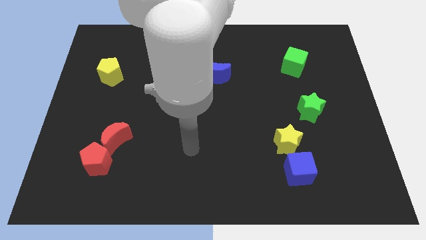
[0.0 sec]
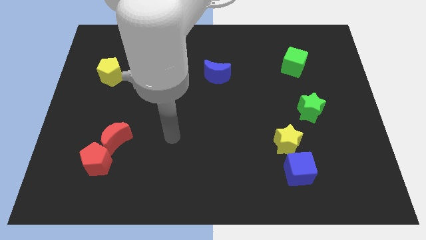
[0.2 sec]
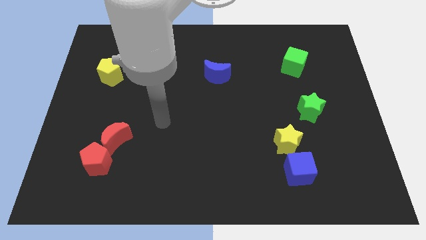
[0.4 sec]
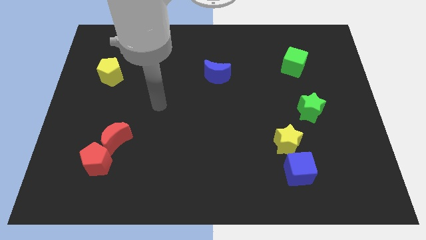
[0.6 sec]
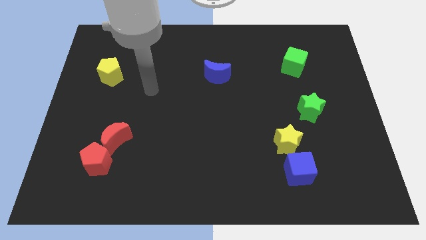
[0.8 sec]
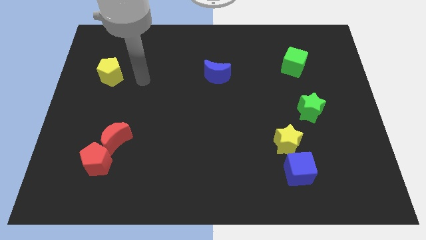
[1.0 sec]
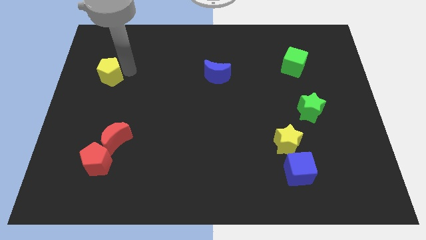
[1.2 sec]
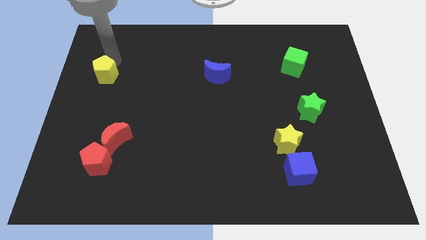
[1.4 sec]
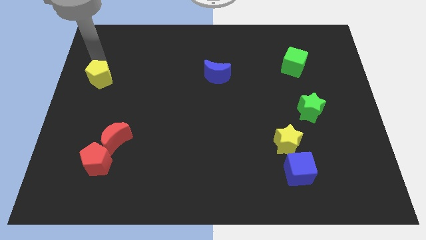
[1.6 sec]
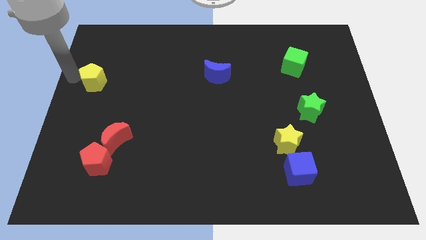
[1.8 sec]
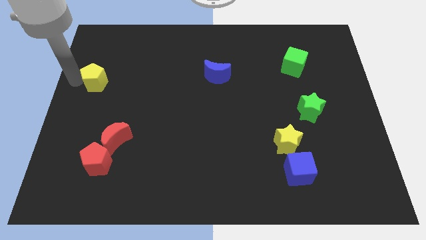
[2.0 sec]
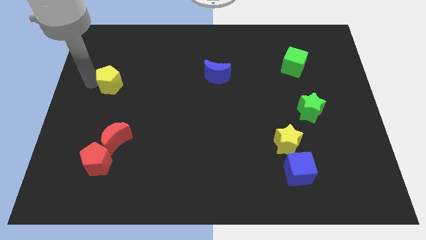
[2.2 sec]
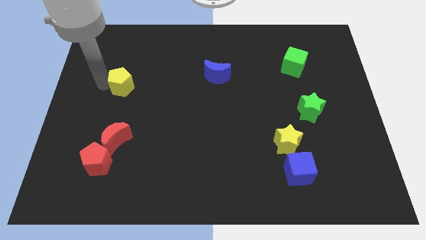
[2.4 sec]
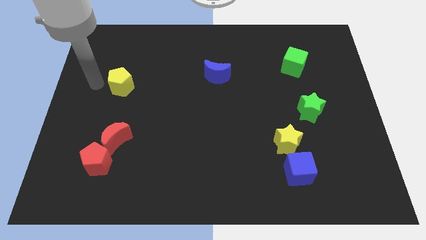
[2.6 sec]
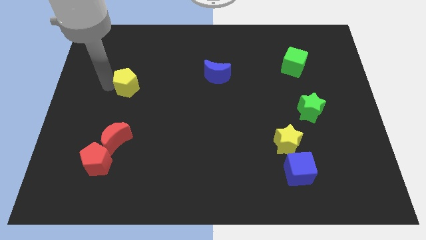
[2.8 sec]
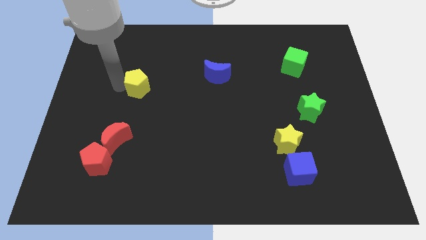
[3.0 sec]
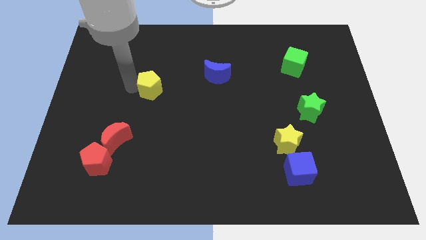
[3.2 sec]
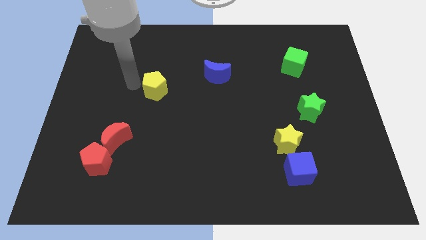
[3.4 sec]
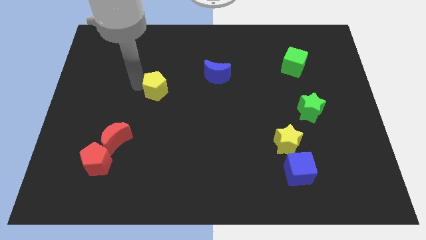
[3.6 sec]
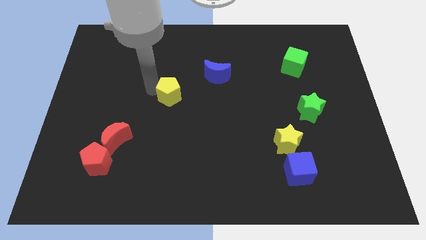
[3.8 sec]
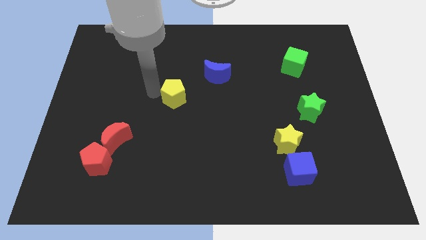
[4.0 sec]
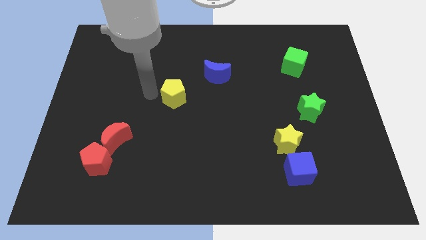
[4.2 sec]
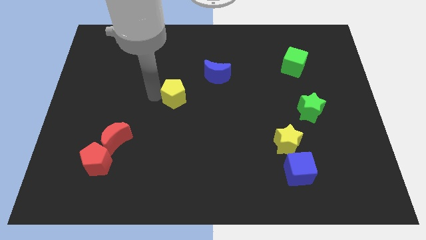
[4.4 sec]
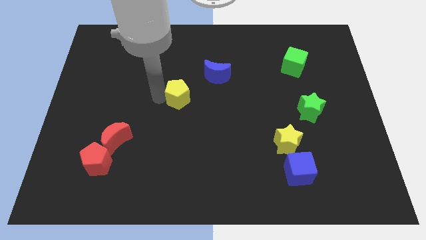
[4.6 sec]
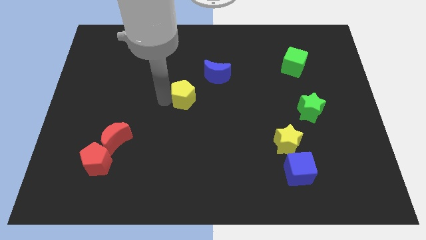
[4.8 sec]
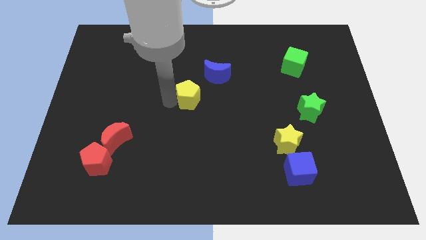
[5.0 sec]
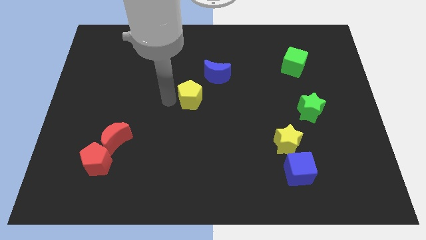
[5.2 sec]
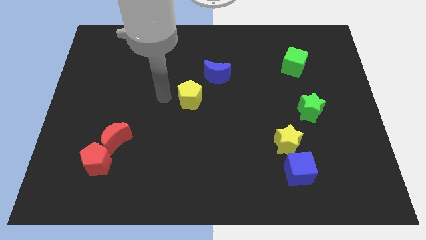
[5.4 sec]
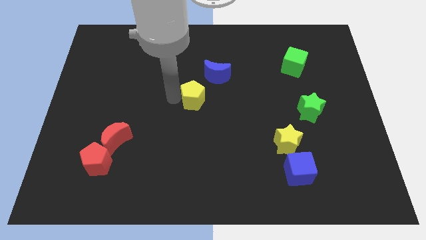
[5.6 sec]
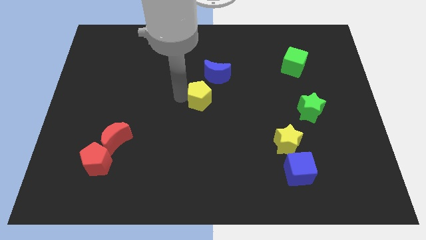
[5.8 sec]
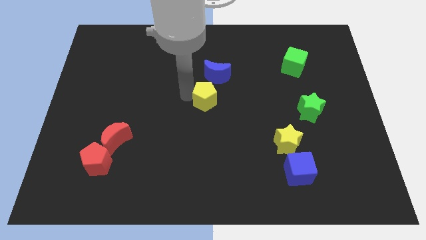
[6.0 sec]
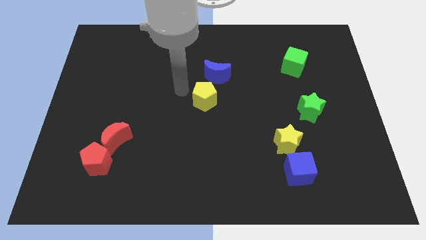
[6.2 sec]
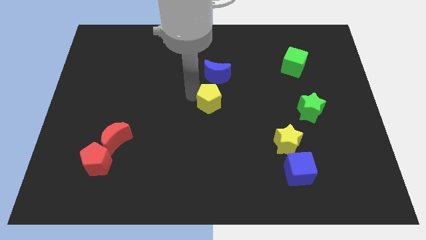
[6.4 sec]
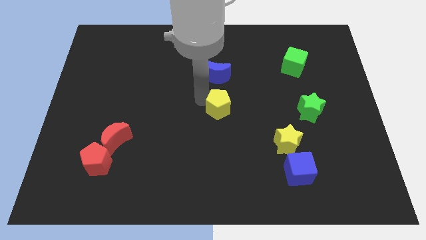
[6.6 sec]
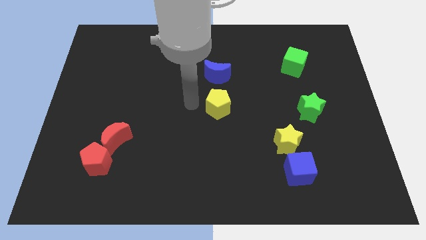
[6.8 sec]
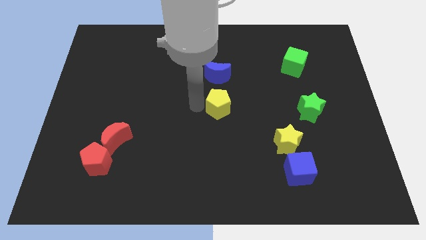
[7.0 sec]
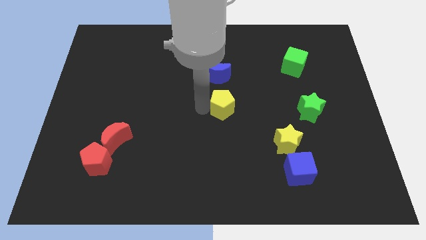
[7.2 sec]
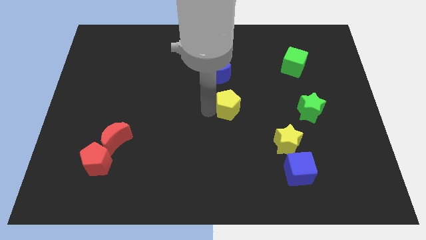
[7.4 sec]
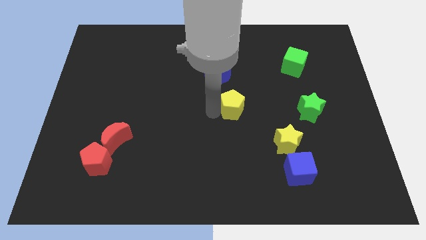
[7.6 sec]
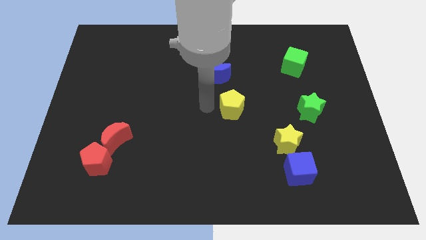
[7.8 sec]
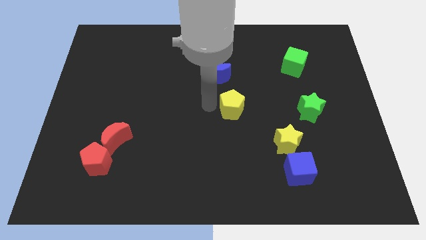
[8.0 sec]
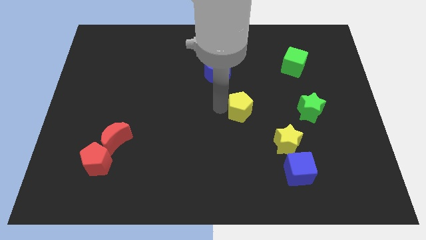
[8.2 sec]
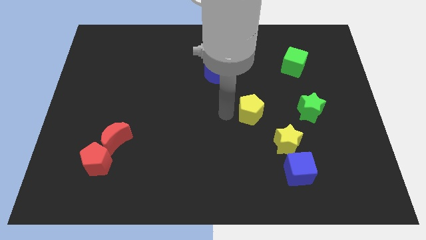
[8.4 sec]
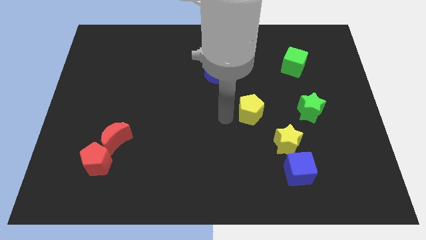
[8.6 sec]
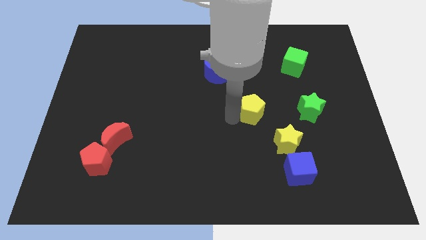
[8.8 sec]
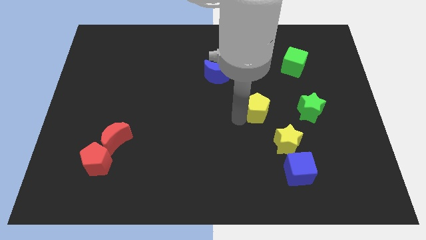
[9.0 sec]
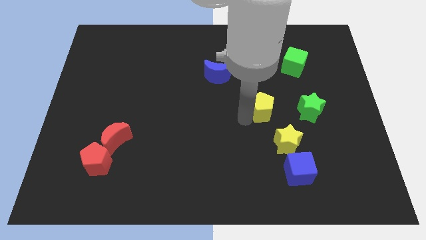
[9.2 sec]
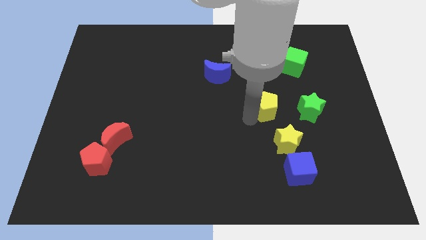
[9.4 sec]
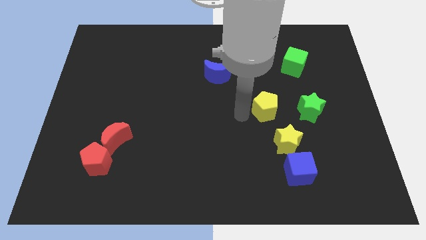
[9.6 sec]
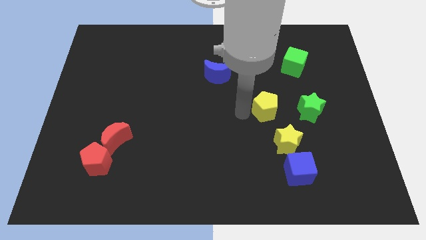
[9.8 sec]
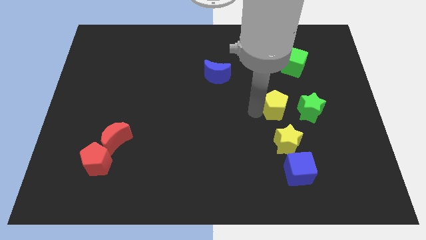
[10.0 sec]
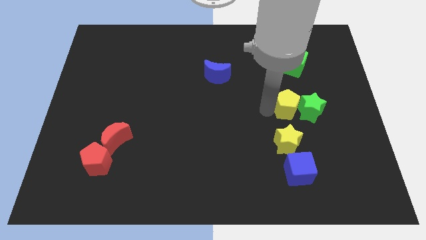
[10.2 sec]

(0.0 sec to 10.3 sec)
push the yellow pentagon next to the green star

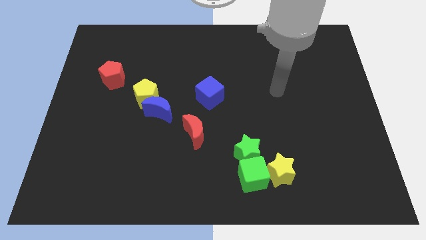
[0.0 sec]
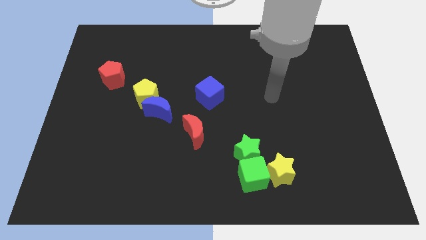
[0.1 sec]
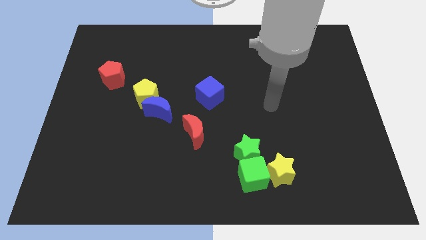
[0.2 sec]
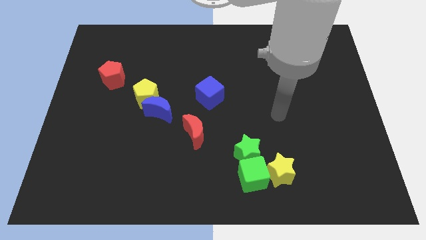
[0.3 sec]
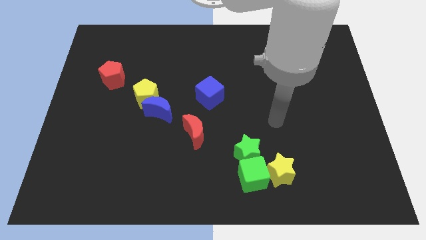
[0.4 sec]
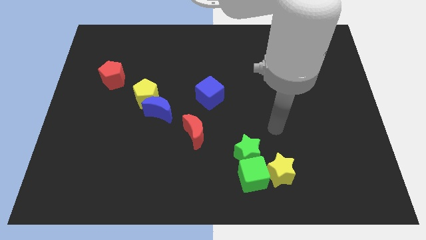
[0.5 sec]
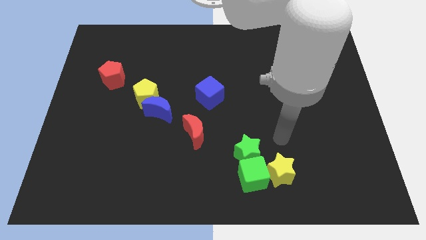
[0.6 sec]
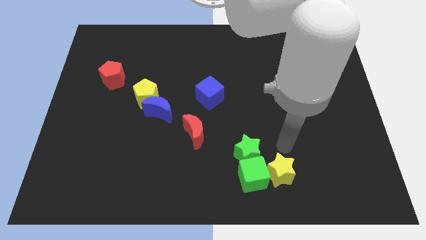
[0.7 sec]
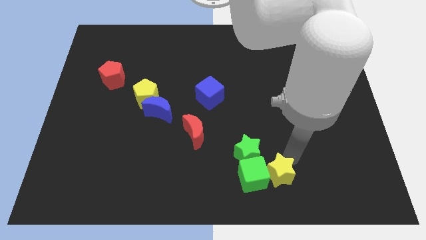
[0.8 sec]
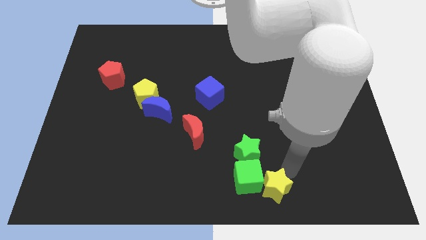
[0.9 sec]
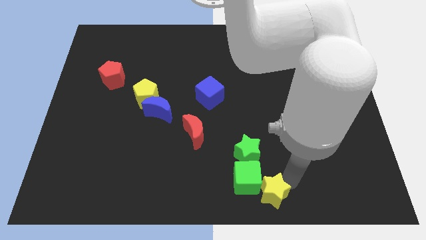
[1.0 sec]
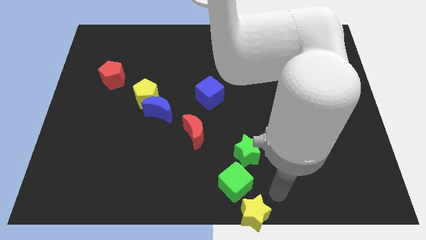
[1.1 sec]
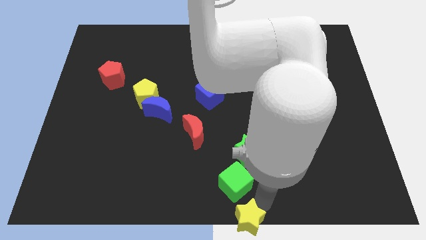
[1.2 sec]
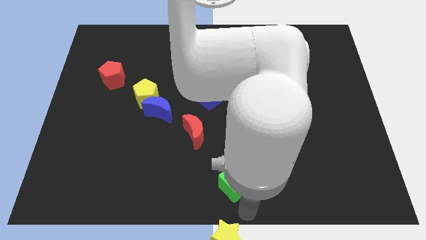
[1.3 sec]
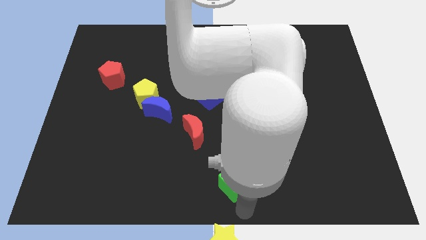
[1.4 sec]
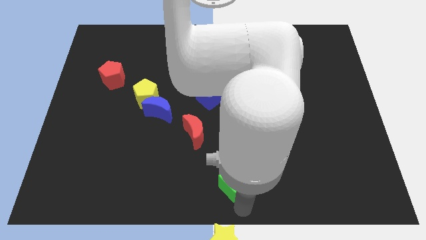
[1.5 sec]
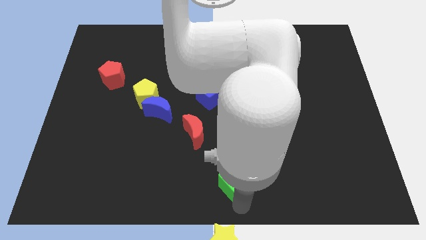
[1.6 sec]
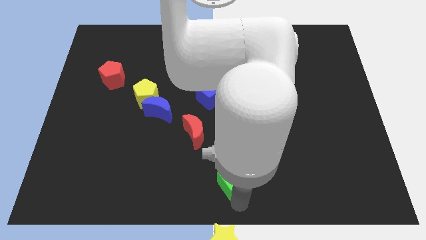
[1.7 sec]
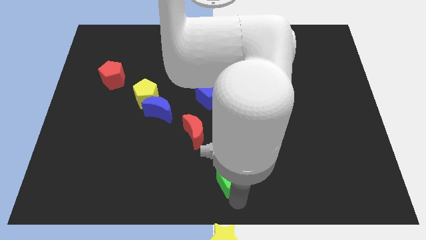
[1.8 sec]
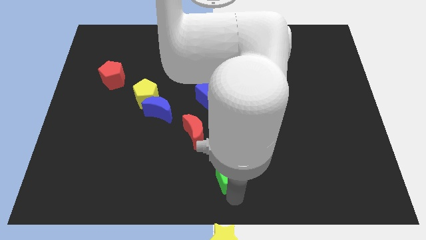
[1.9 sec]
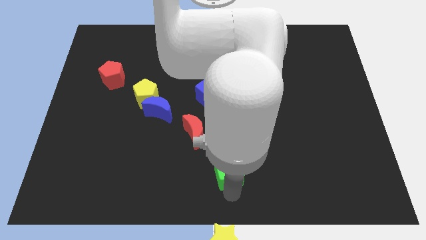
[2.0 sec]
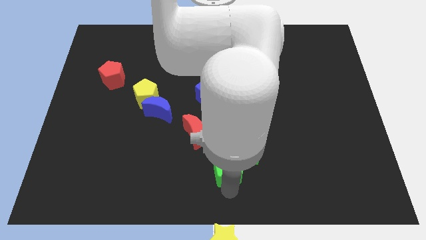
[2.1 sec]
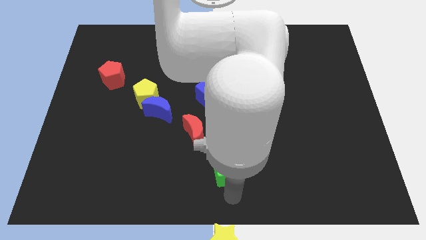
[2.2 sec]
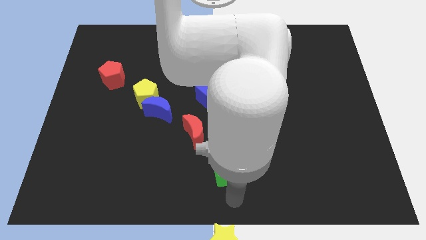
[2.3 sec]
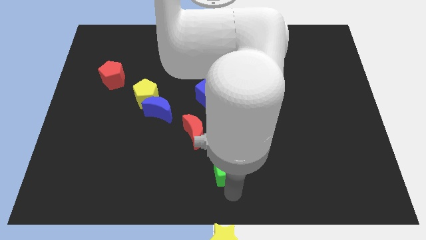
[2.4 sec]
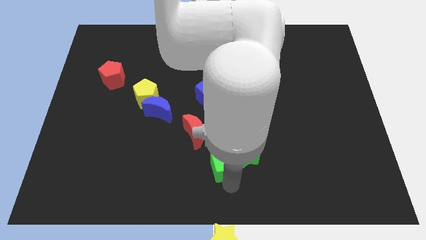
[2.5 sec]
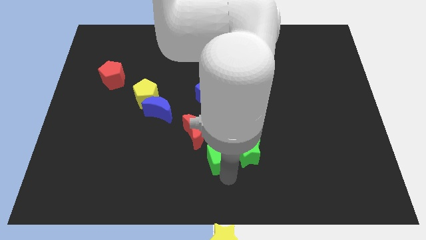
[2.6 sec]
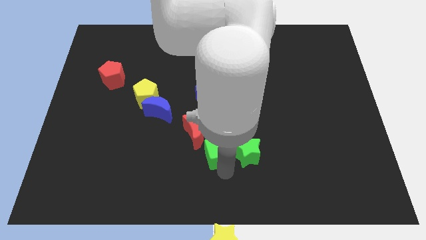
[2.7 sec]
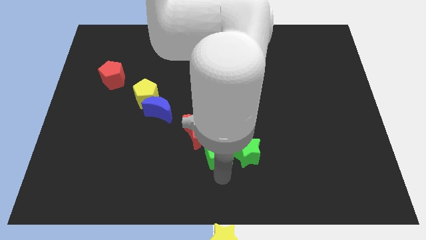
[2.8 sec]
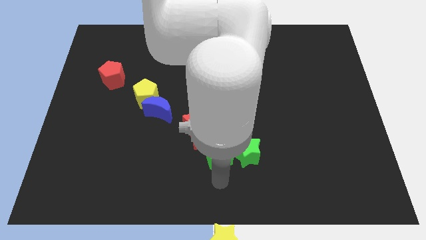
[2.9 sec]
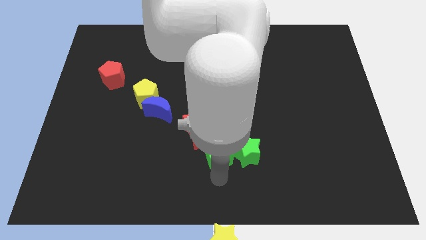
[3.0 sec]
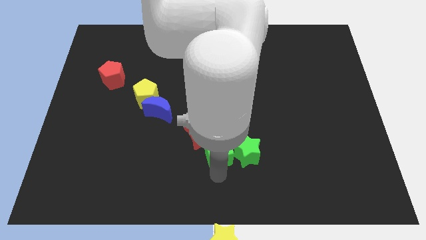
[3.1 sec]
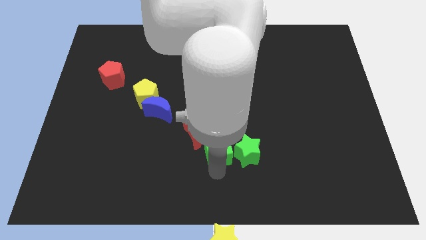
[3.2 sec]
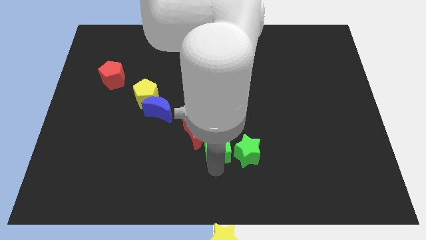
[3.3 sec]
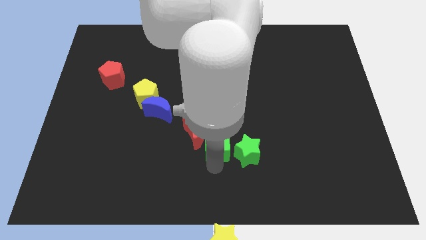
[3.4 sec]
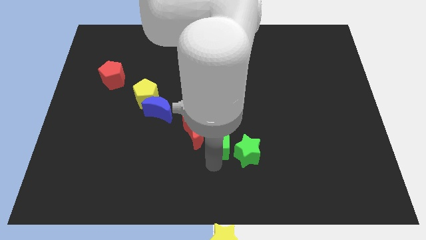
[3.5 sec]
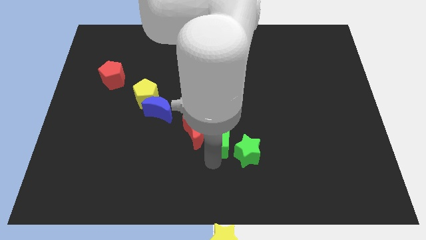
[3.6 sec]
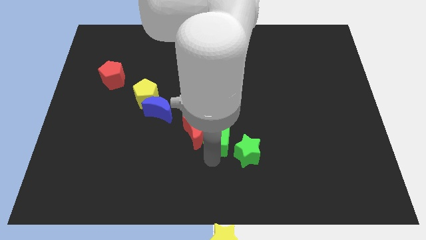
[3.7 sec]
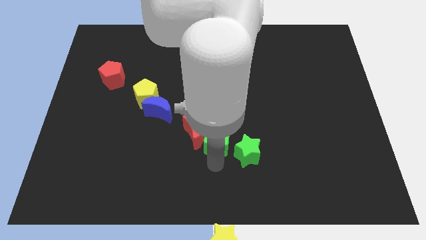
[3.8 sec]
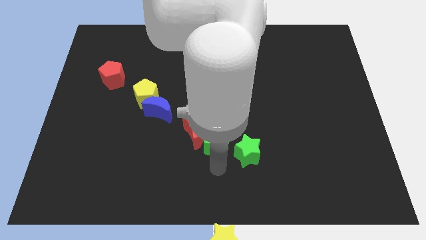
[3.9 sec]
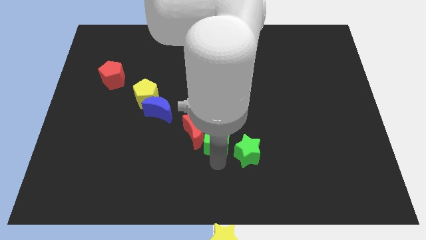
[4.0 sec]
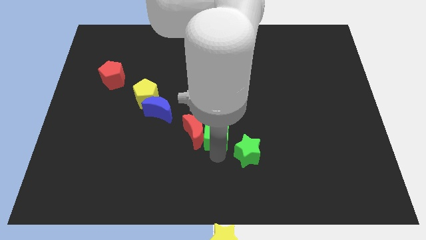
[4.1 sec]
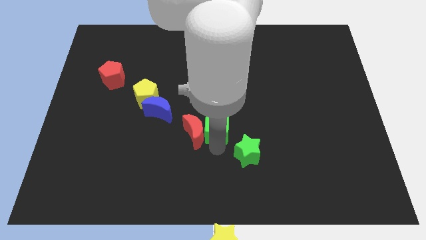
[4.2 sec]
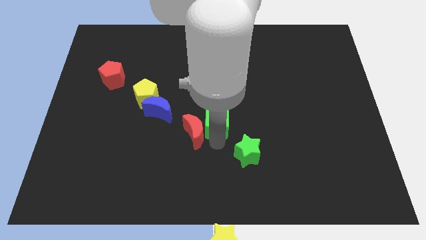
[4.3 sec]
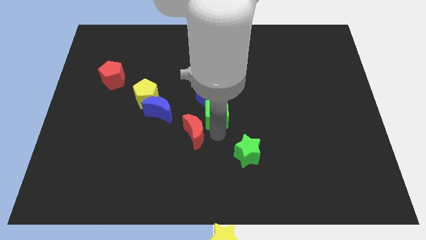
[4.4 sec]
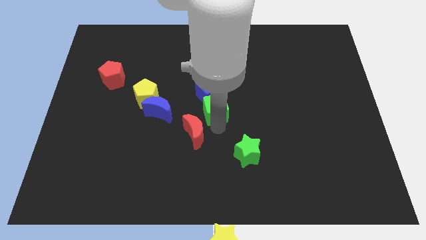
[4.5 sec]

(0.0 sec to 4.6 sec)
put the green cube towards the blue cube
